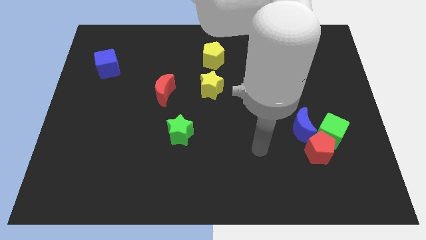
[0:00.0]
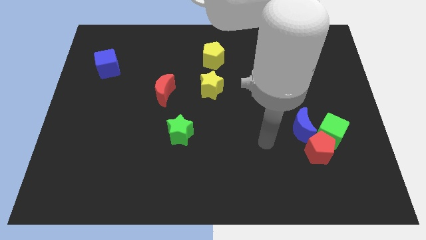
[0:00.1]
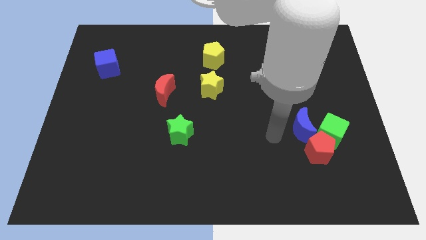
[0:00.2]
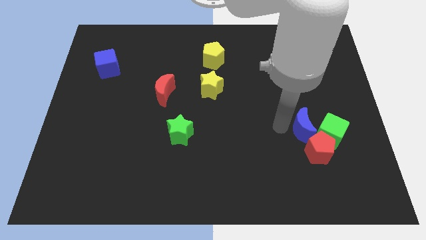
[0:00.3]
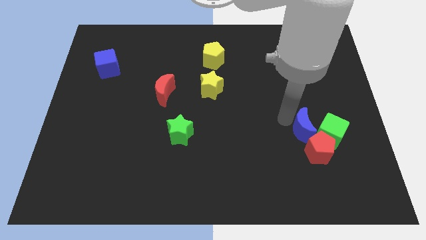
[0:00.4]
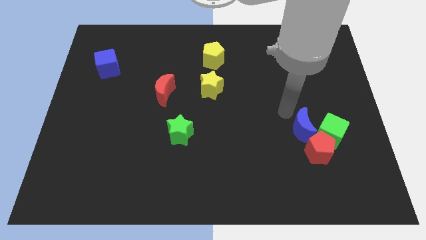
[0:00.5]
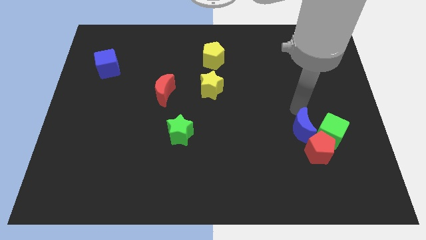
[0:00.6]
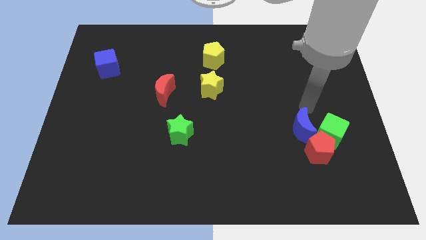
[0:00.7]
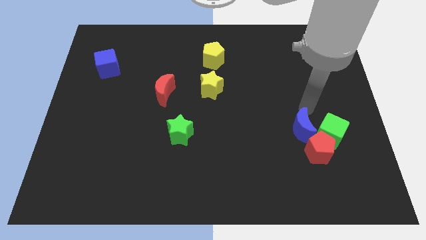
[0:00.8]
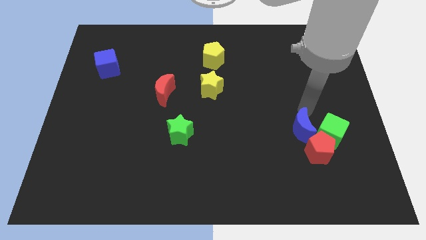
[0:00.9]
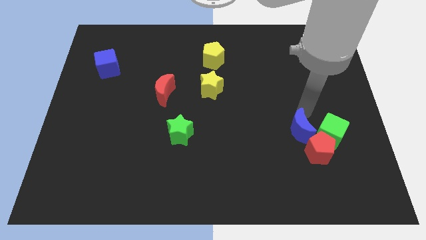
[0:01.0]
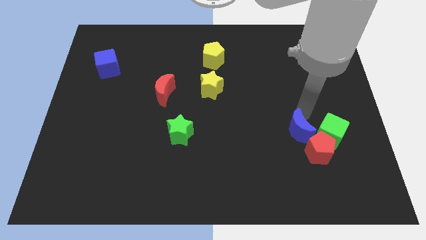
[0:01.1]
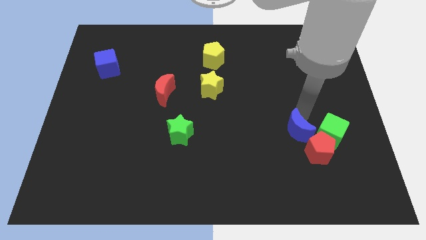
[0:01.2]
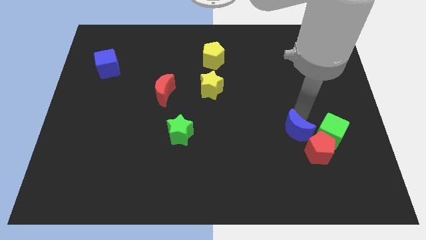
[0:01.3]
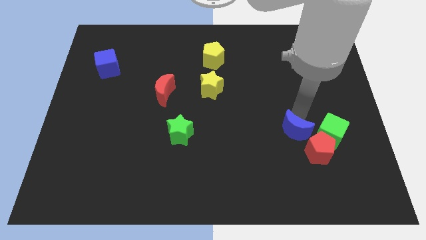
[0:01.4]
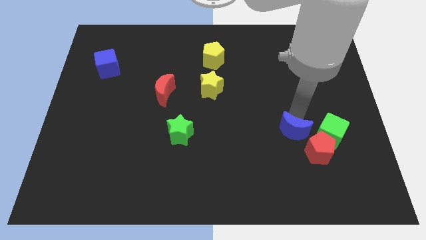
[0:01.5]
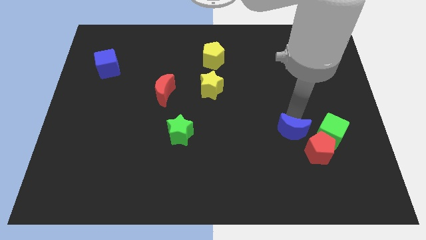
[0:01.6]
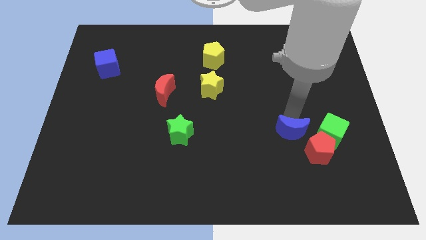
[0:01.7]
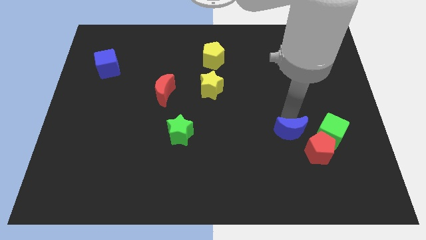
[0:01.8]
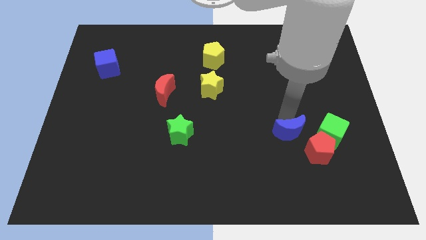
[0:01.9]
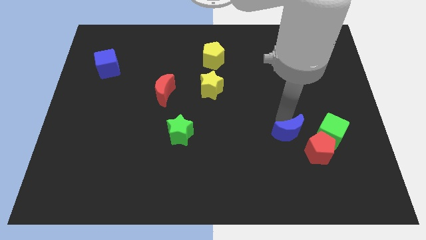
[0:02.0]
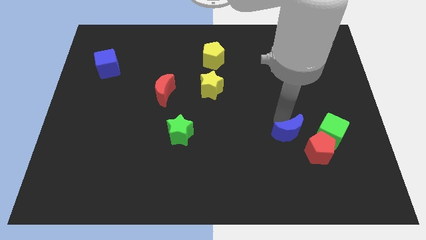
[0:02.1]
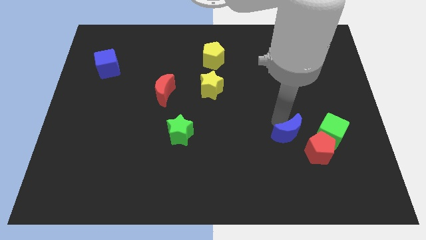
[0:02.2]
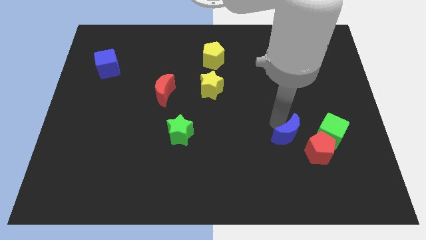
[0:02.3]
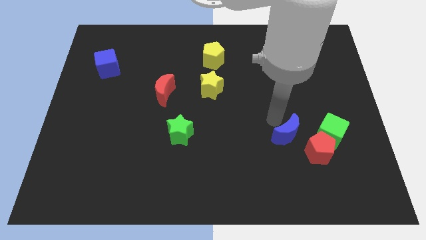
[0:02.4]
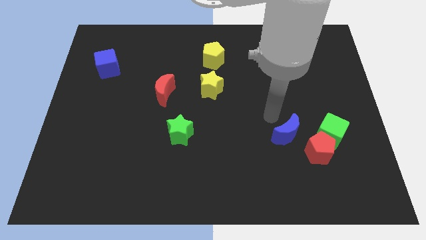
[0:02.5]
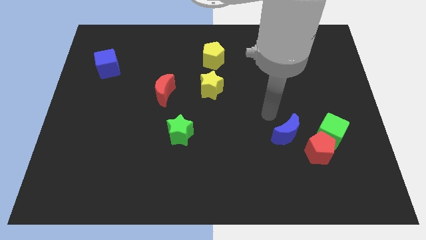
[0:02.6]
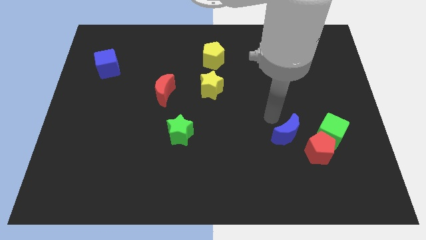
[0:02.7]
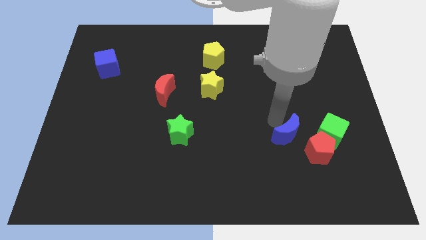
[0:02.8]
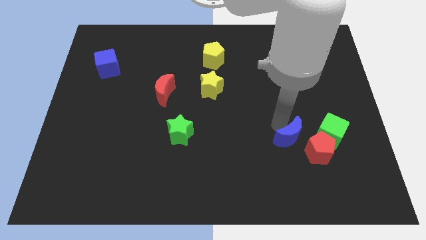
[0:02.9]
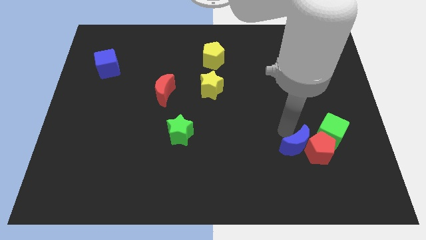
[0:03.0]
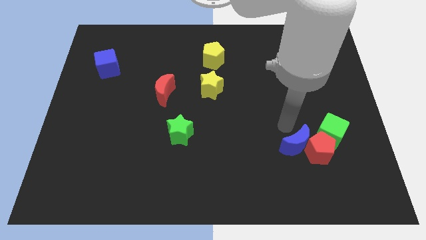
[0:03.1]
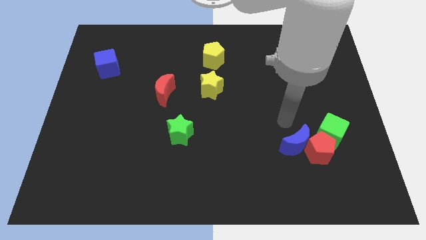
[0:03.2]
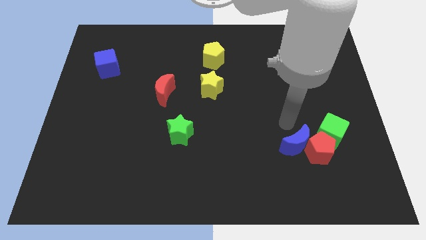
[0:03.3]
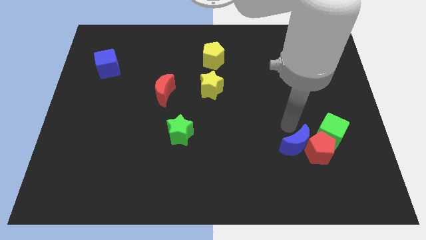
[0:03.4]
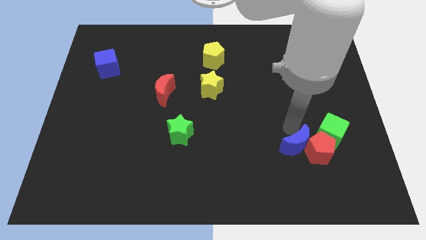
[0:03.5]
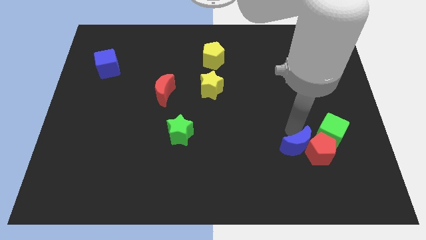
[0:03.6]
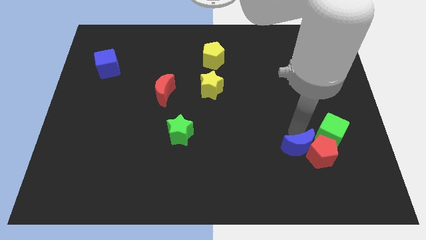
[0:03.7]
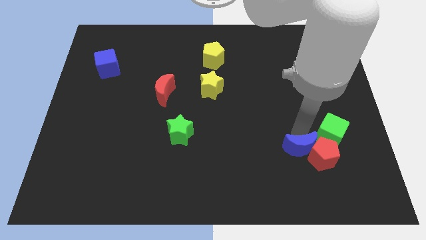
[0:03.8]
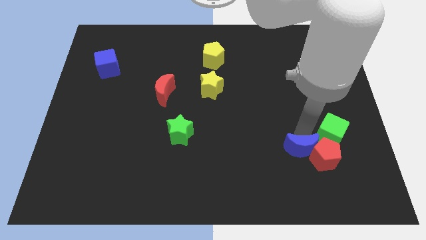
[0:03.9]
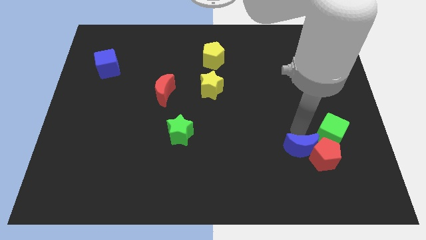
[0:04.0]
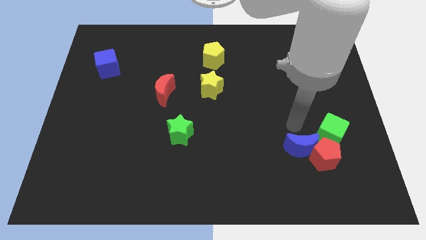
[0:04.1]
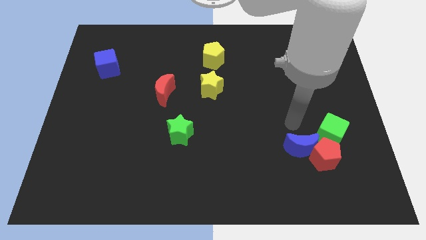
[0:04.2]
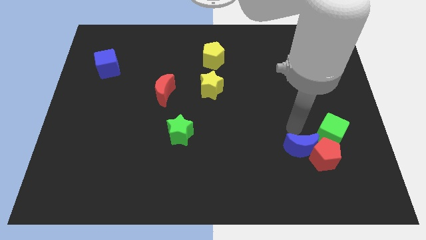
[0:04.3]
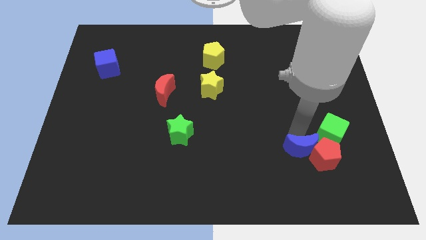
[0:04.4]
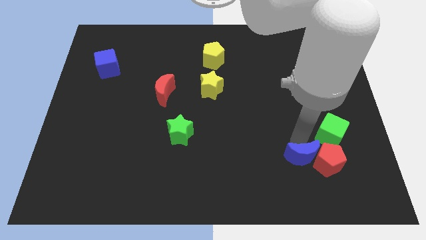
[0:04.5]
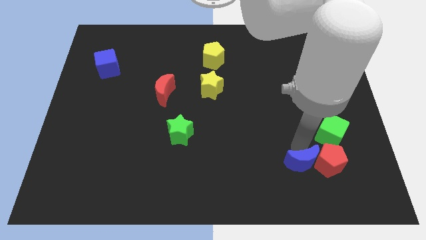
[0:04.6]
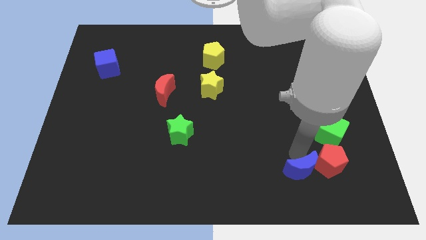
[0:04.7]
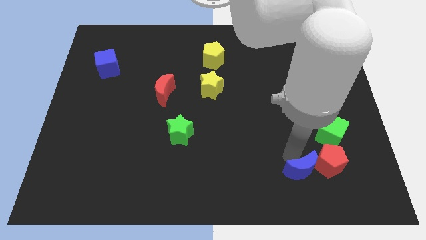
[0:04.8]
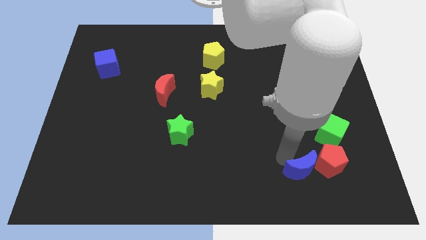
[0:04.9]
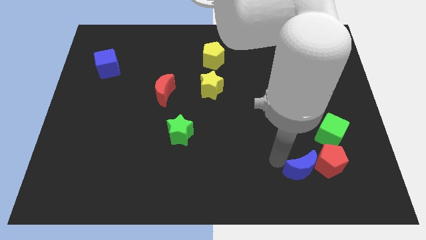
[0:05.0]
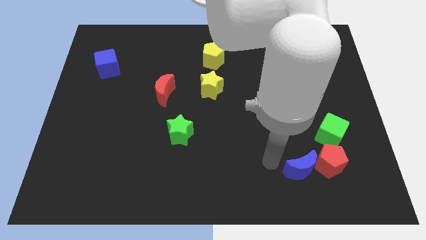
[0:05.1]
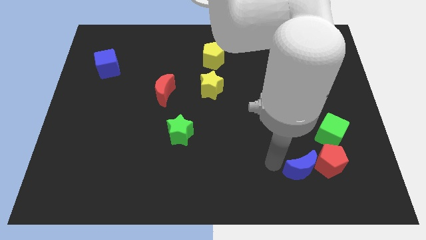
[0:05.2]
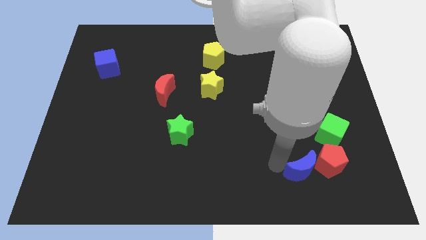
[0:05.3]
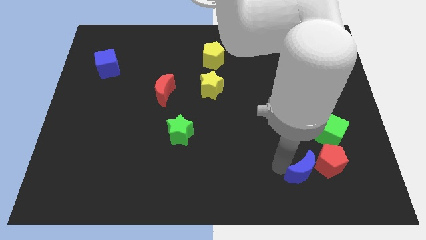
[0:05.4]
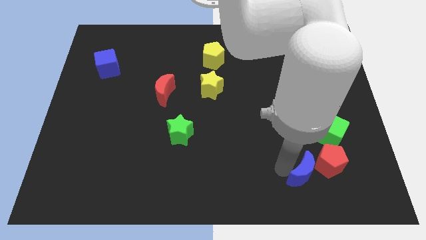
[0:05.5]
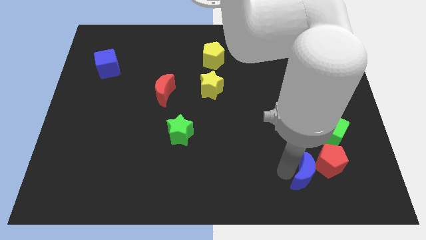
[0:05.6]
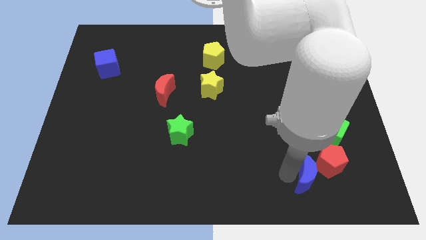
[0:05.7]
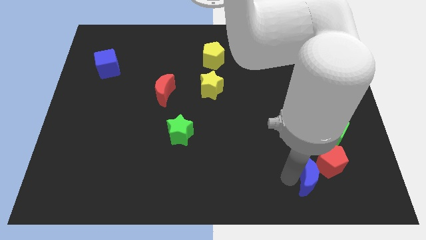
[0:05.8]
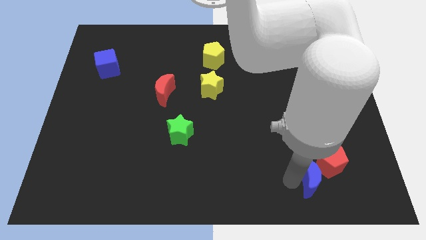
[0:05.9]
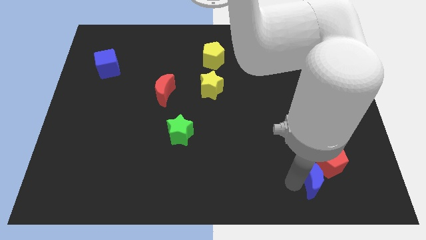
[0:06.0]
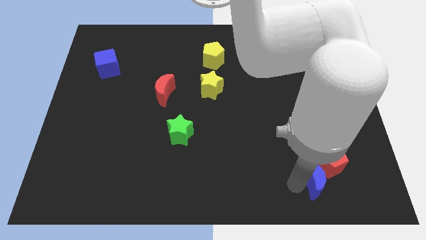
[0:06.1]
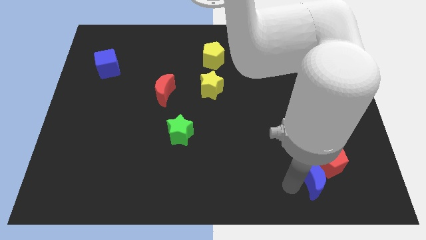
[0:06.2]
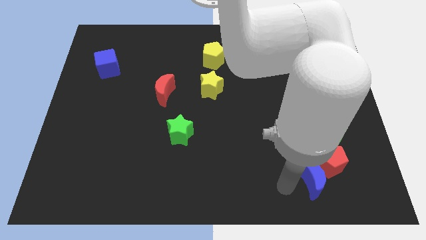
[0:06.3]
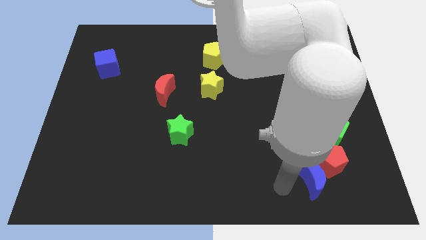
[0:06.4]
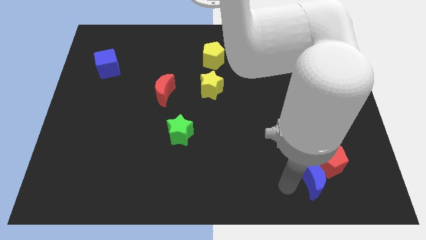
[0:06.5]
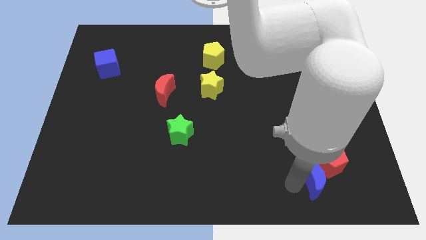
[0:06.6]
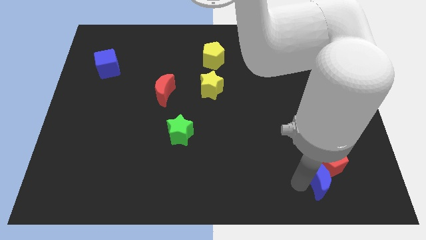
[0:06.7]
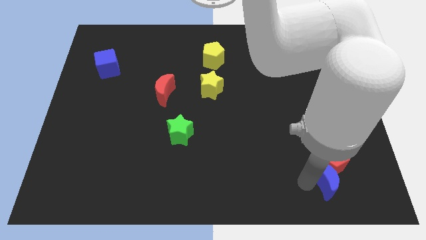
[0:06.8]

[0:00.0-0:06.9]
push the blue moon diagonally down and to the right of the red pentagon
